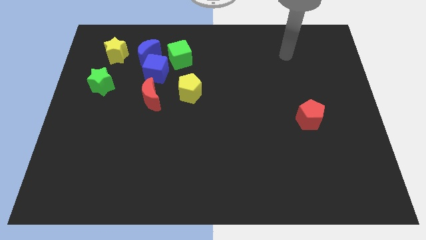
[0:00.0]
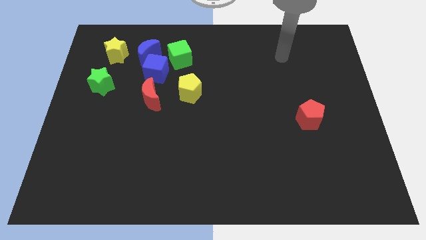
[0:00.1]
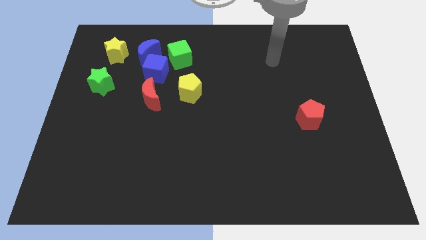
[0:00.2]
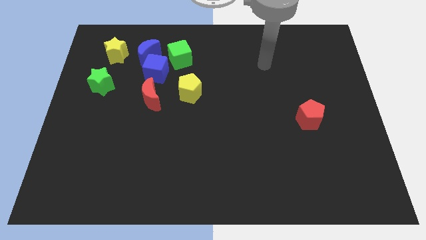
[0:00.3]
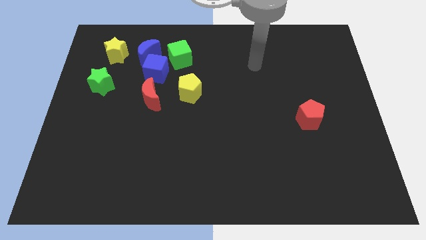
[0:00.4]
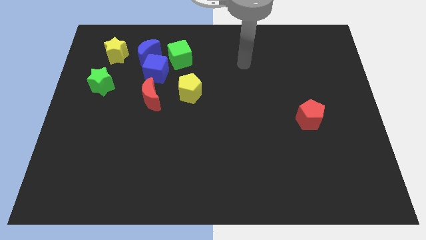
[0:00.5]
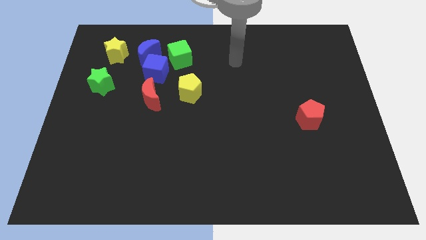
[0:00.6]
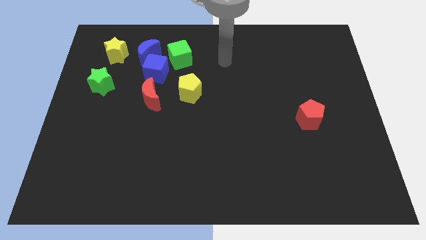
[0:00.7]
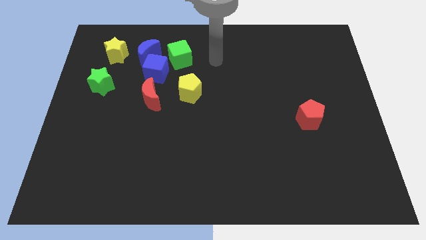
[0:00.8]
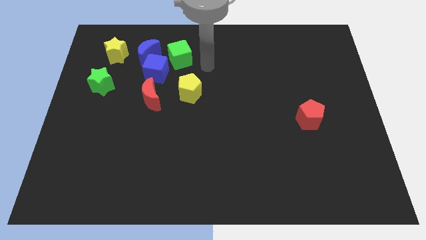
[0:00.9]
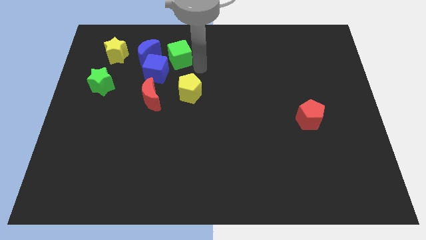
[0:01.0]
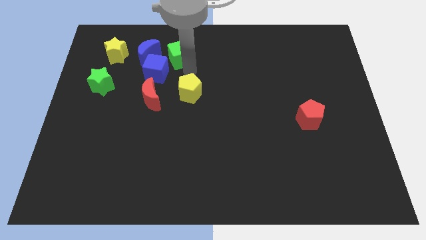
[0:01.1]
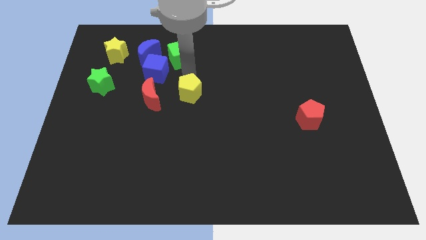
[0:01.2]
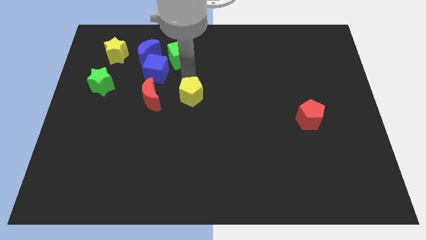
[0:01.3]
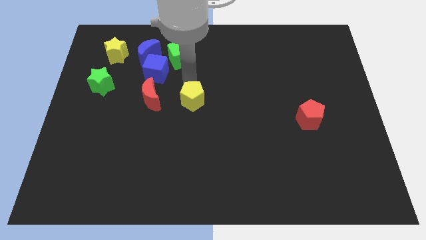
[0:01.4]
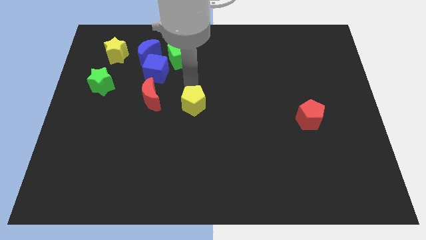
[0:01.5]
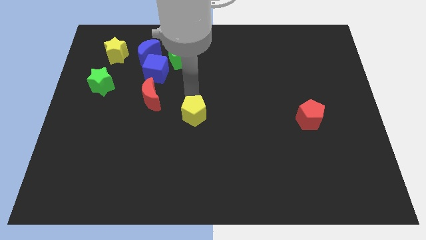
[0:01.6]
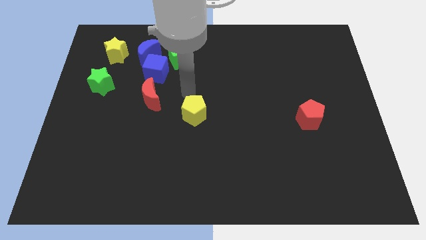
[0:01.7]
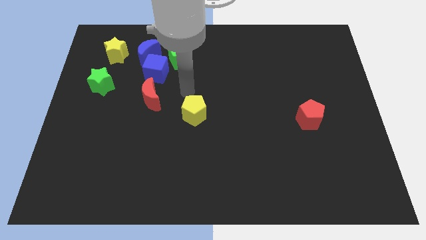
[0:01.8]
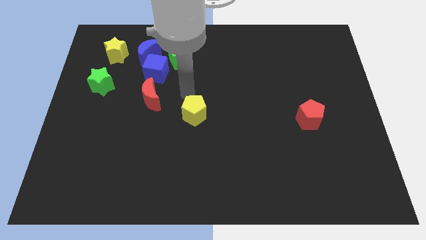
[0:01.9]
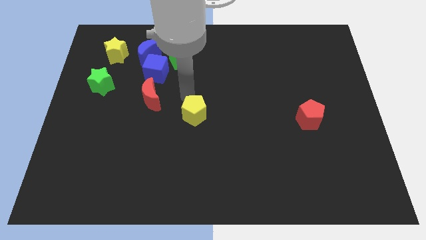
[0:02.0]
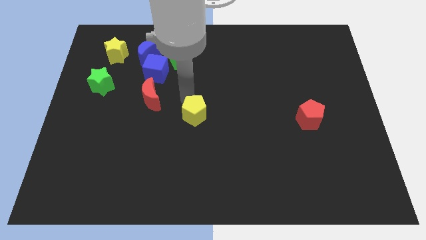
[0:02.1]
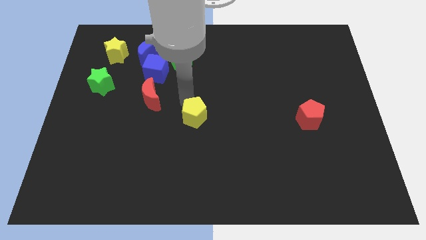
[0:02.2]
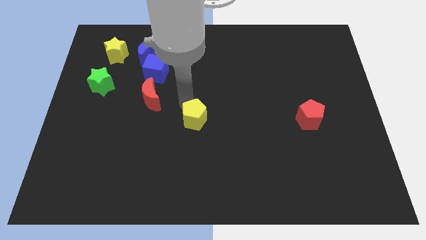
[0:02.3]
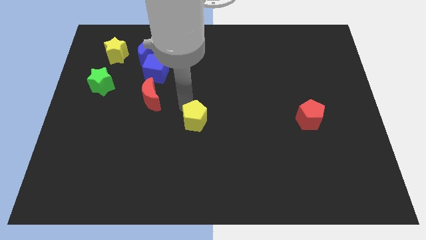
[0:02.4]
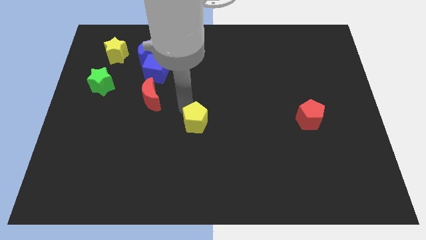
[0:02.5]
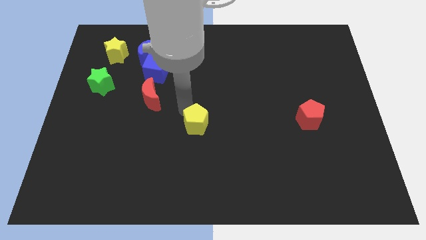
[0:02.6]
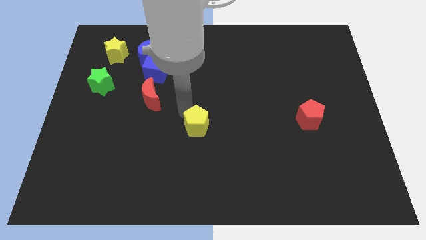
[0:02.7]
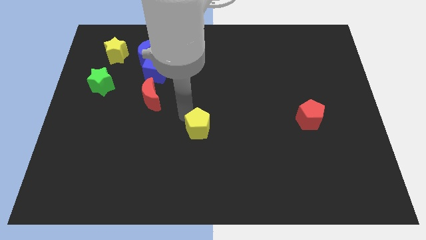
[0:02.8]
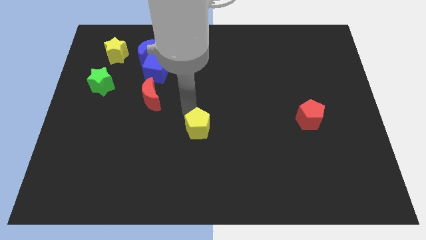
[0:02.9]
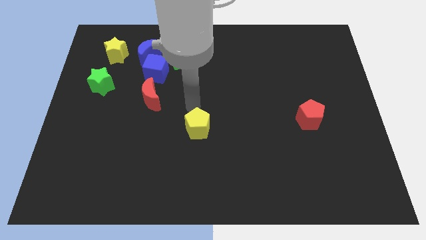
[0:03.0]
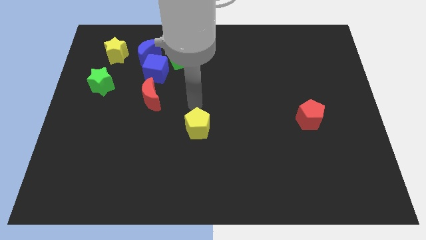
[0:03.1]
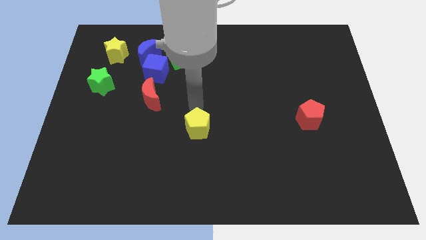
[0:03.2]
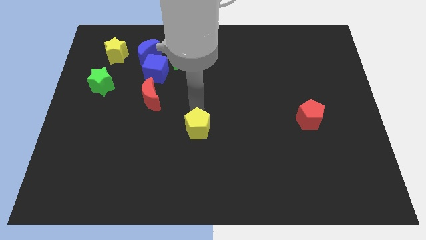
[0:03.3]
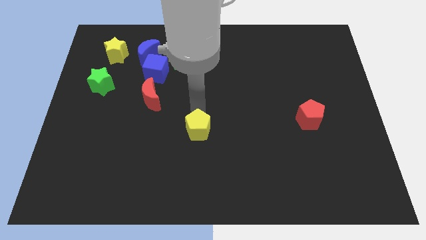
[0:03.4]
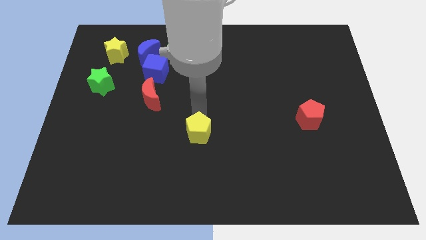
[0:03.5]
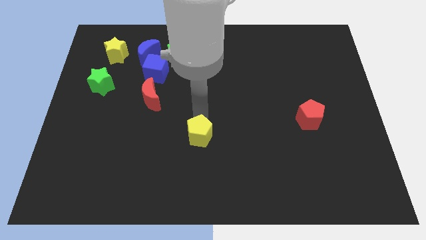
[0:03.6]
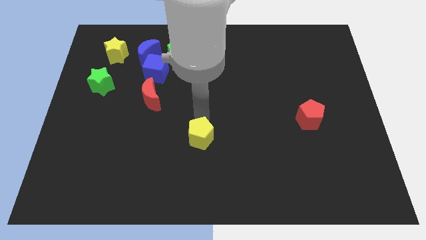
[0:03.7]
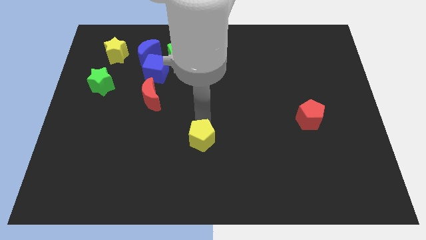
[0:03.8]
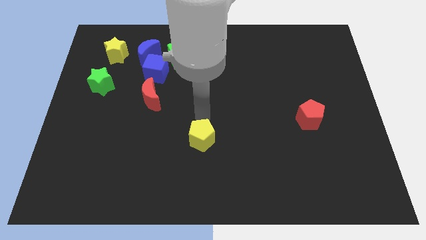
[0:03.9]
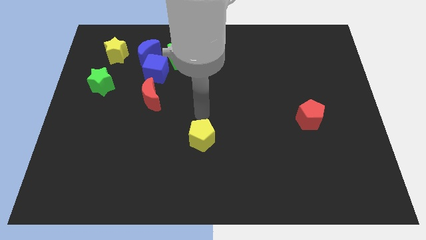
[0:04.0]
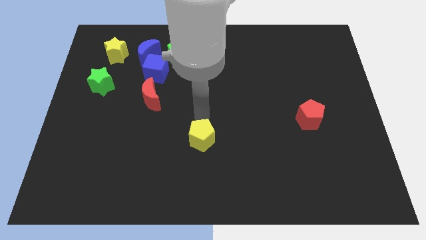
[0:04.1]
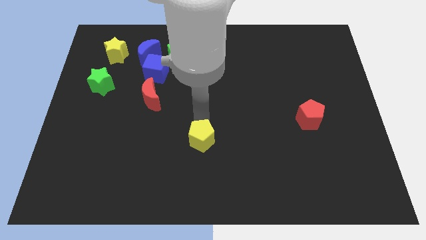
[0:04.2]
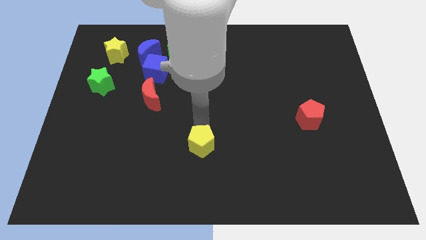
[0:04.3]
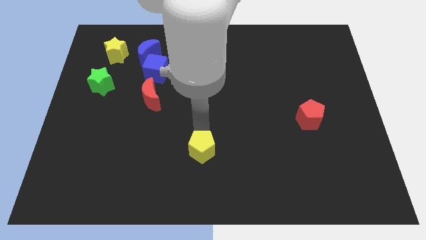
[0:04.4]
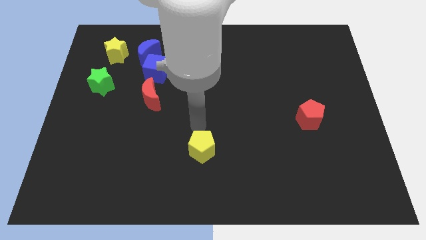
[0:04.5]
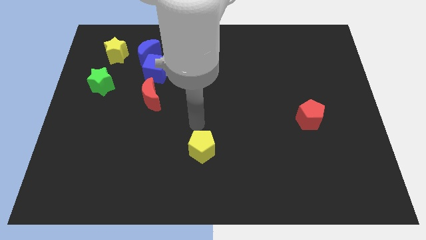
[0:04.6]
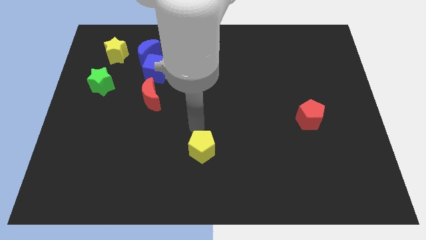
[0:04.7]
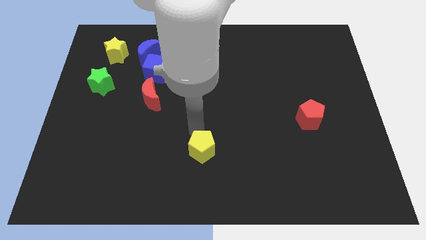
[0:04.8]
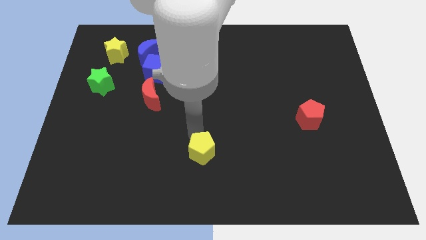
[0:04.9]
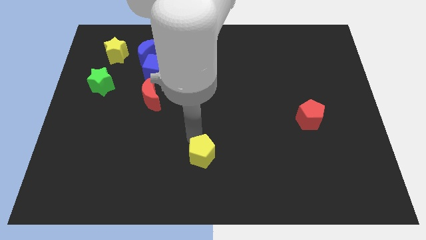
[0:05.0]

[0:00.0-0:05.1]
push the yellow pentagon to the bottom
